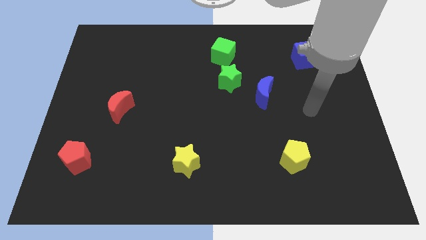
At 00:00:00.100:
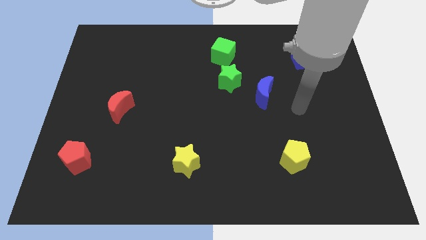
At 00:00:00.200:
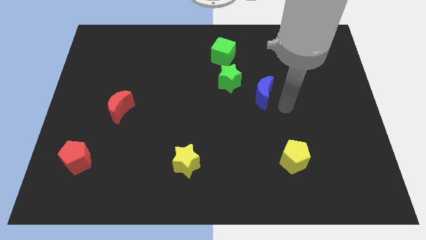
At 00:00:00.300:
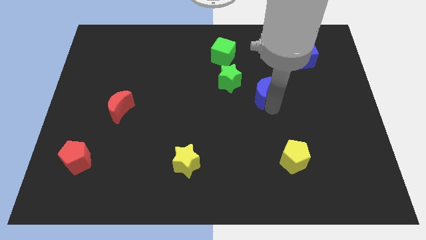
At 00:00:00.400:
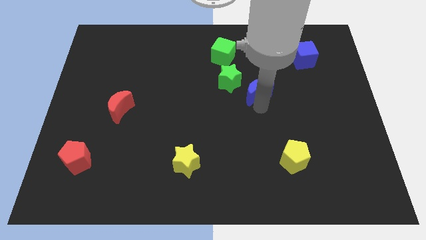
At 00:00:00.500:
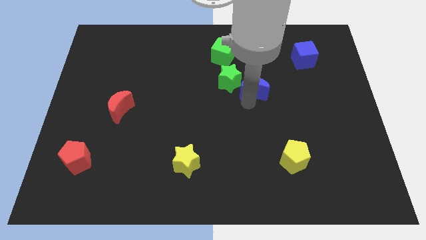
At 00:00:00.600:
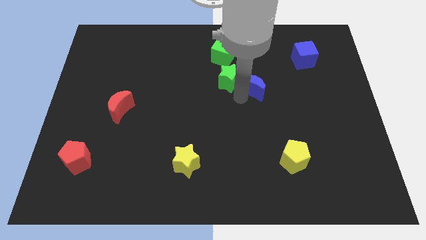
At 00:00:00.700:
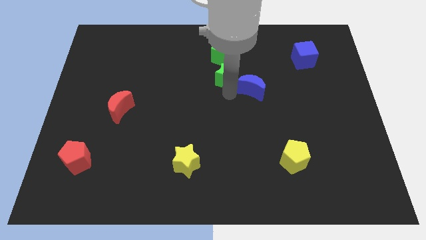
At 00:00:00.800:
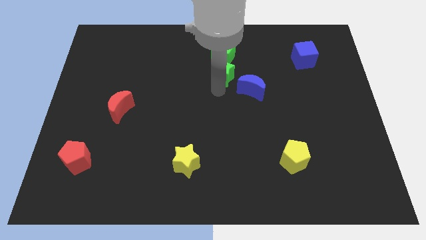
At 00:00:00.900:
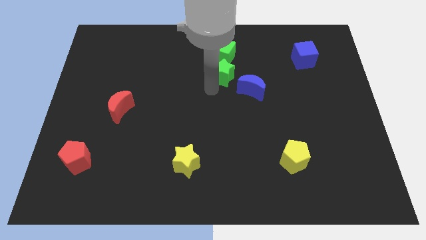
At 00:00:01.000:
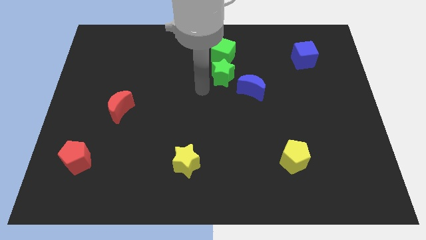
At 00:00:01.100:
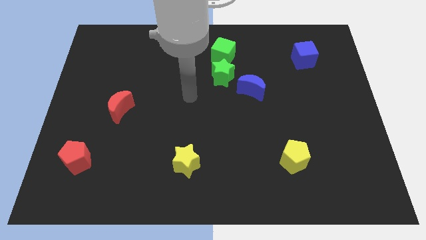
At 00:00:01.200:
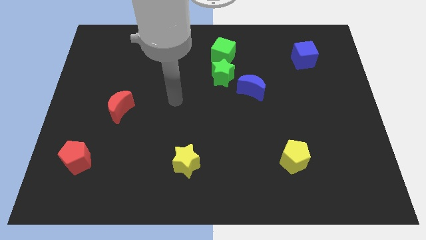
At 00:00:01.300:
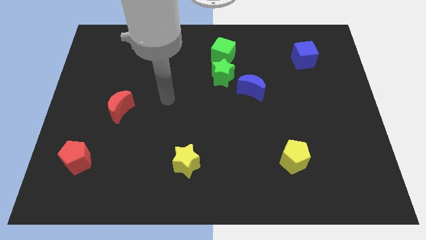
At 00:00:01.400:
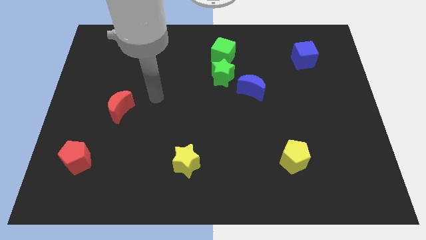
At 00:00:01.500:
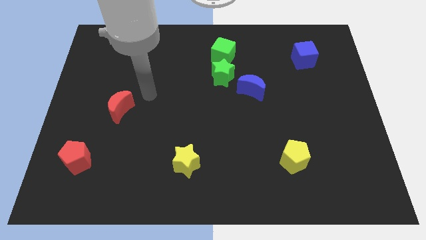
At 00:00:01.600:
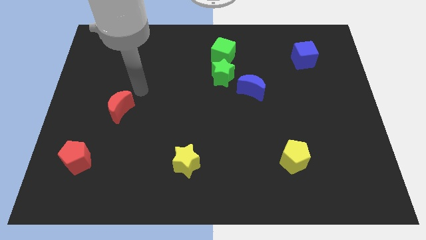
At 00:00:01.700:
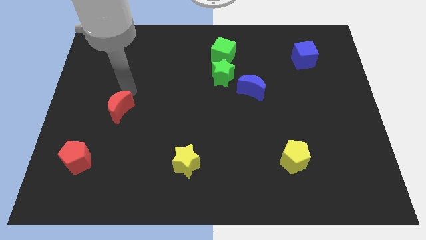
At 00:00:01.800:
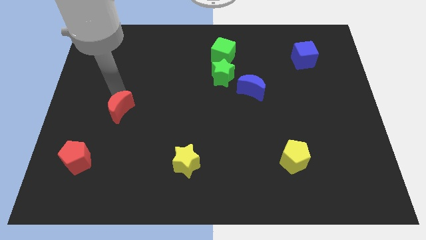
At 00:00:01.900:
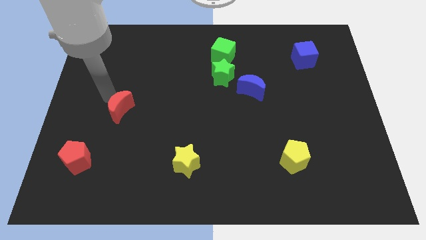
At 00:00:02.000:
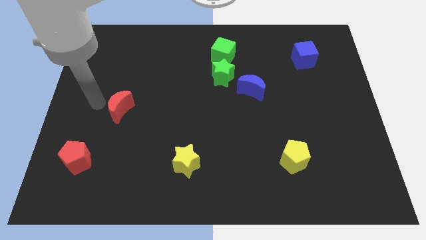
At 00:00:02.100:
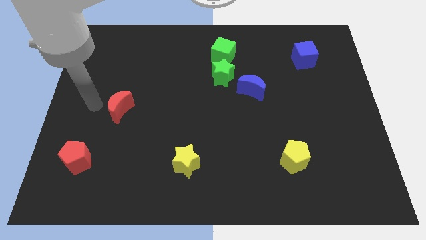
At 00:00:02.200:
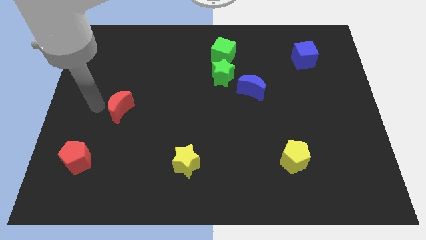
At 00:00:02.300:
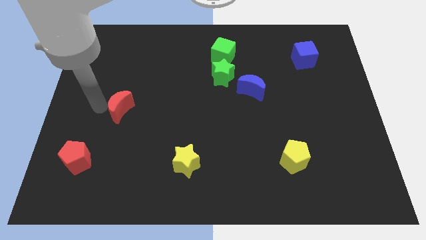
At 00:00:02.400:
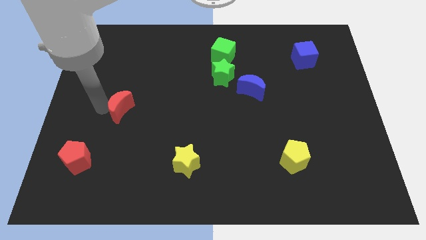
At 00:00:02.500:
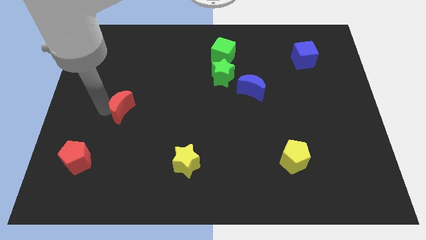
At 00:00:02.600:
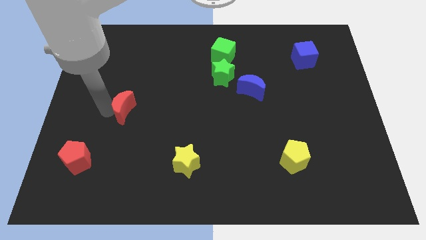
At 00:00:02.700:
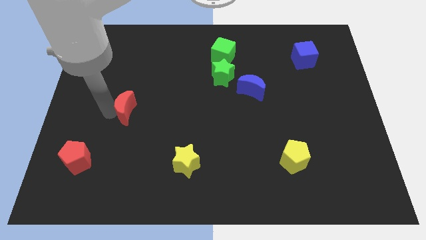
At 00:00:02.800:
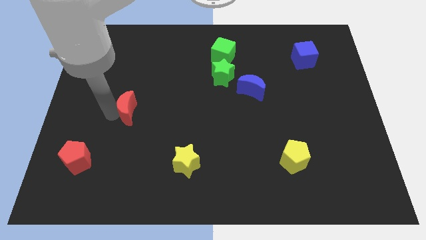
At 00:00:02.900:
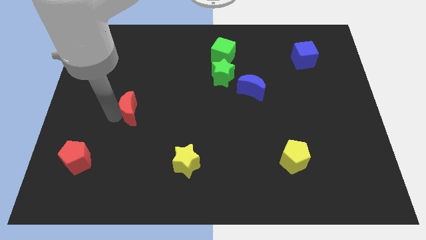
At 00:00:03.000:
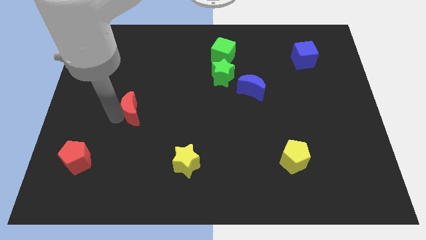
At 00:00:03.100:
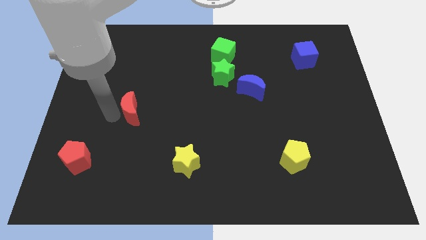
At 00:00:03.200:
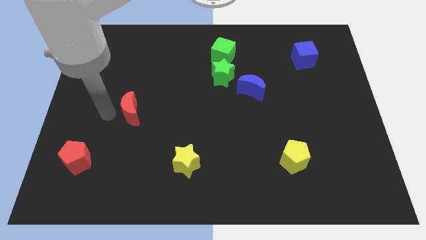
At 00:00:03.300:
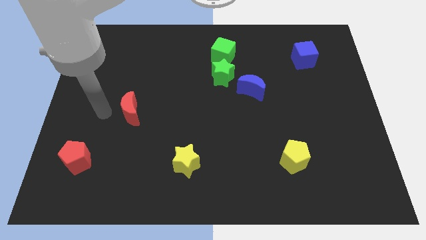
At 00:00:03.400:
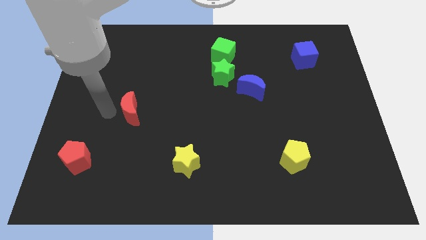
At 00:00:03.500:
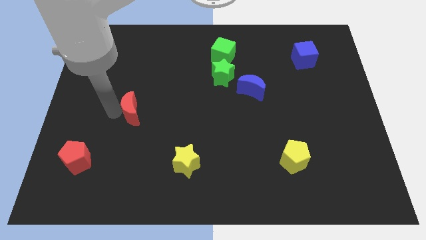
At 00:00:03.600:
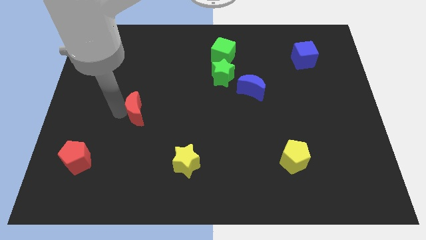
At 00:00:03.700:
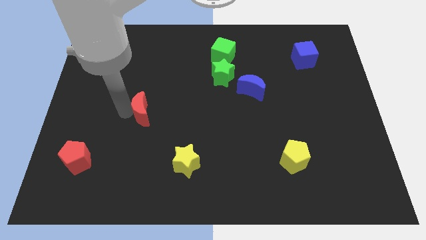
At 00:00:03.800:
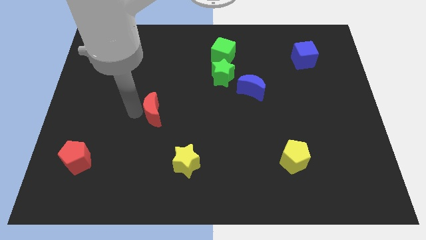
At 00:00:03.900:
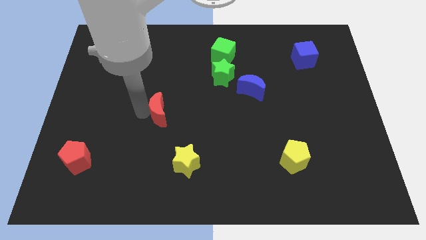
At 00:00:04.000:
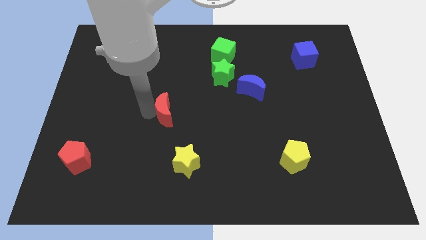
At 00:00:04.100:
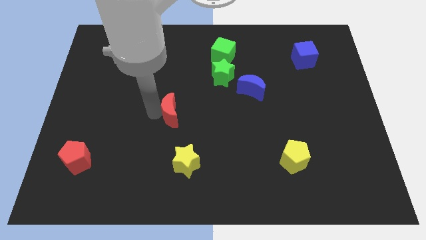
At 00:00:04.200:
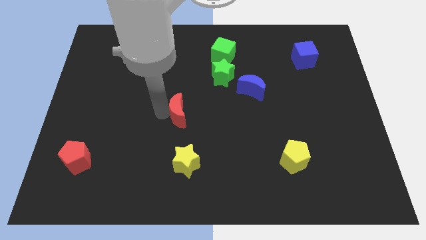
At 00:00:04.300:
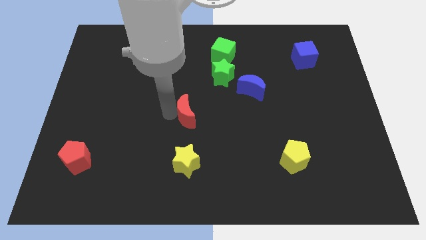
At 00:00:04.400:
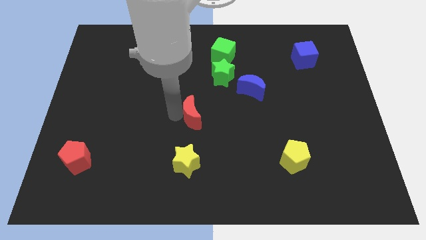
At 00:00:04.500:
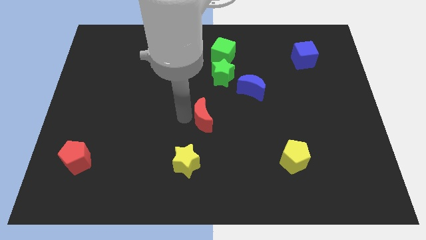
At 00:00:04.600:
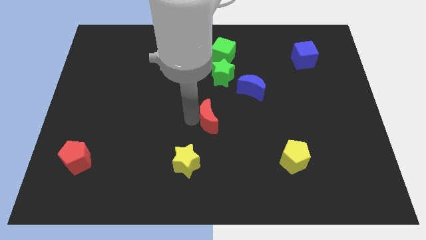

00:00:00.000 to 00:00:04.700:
push the red moon to the bottom side of the green star

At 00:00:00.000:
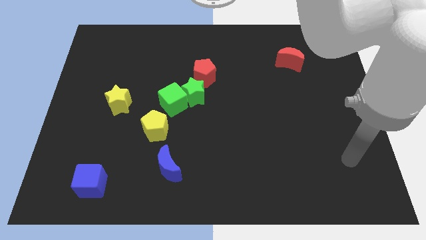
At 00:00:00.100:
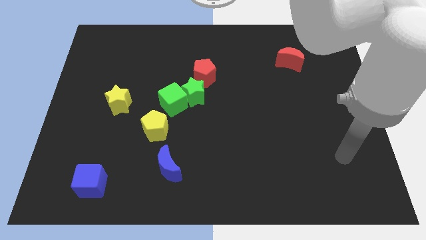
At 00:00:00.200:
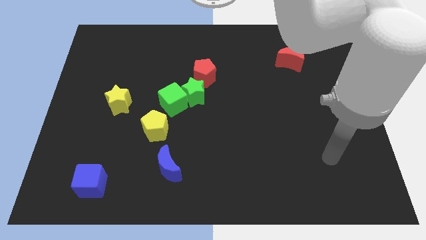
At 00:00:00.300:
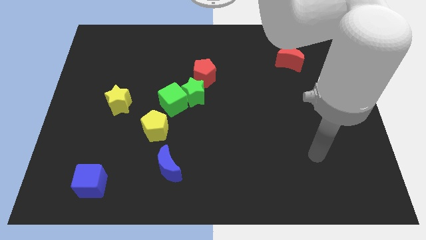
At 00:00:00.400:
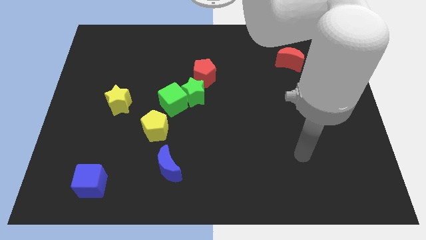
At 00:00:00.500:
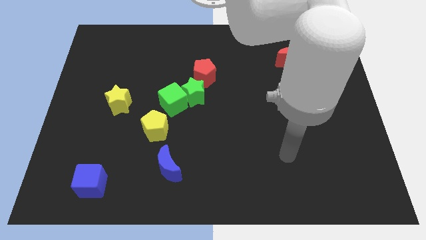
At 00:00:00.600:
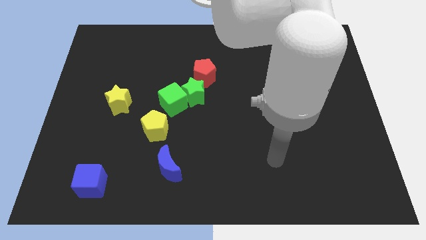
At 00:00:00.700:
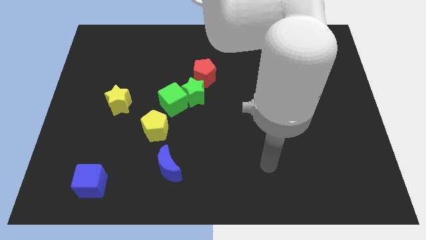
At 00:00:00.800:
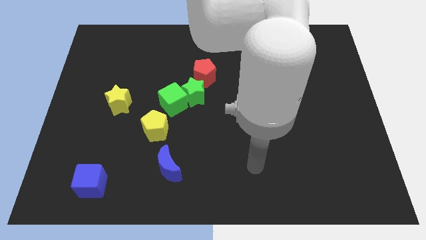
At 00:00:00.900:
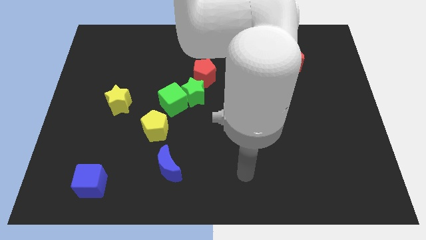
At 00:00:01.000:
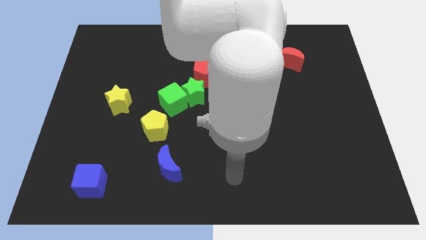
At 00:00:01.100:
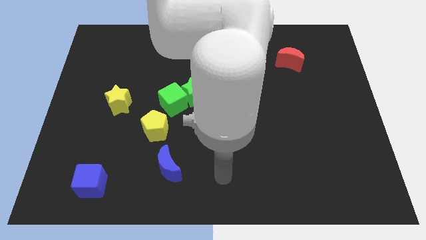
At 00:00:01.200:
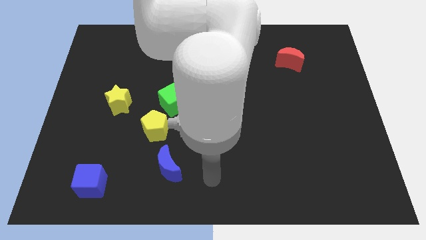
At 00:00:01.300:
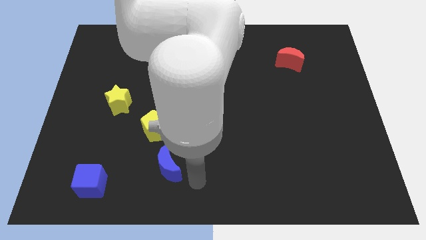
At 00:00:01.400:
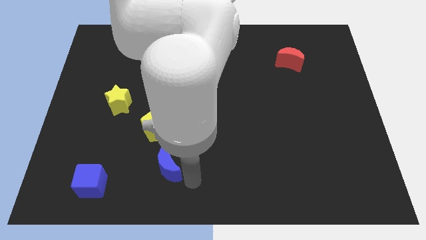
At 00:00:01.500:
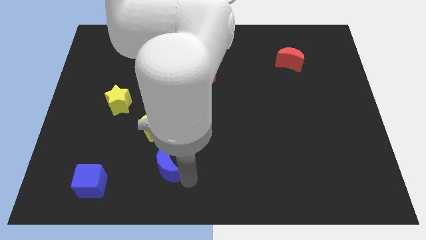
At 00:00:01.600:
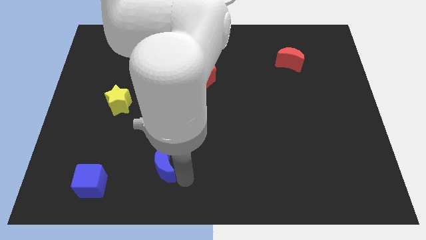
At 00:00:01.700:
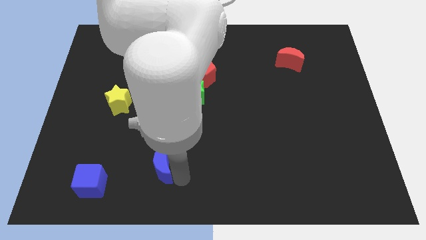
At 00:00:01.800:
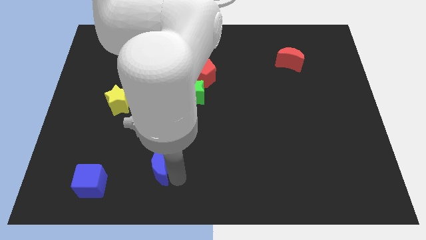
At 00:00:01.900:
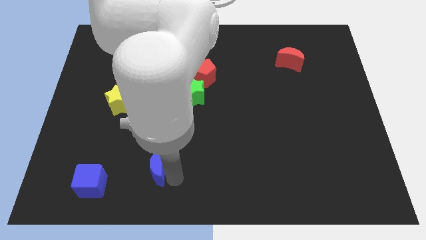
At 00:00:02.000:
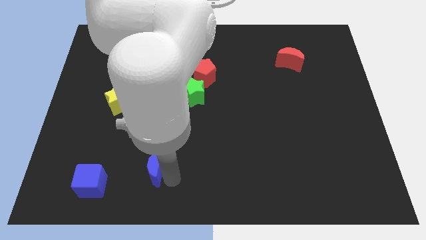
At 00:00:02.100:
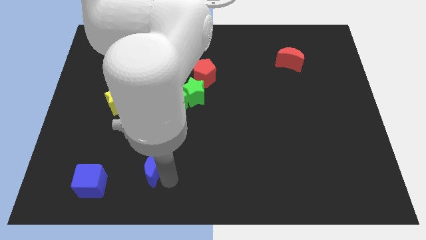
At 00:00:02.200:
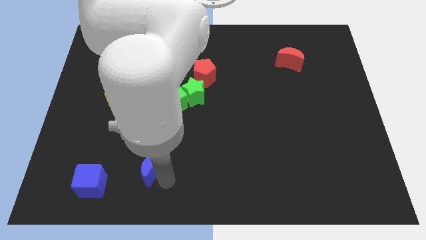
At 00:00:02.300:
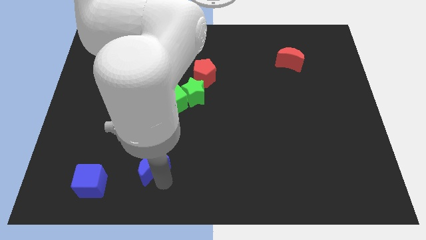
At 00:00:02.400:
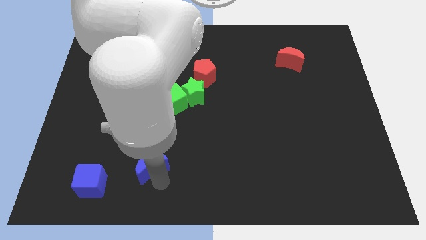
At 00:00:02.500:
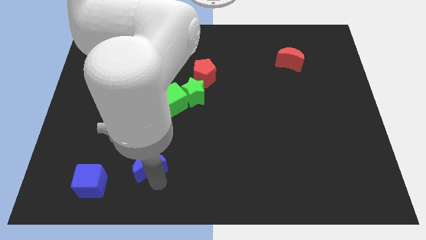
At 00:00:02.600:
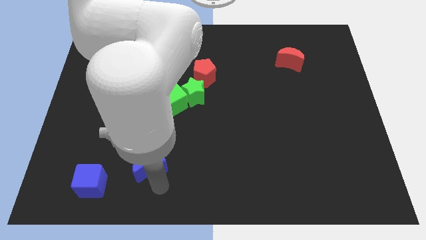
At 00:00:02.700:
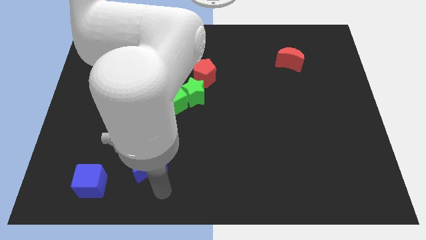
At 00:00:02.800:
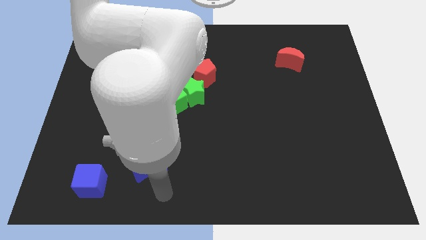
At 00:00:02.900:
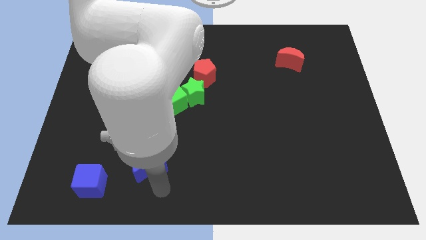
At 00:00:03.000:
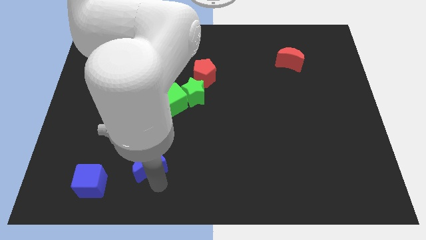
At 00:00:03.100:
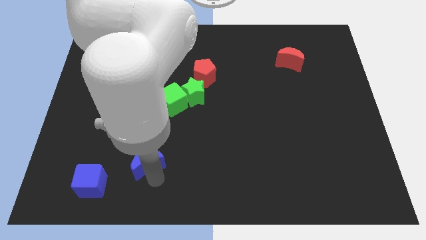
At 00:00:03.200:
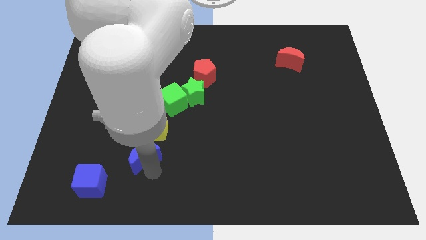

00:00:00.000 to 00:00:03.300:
slide the blue moon to the bottom left side of the yellow pentagon
